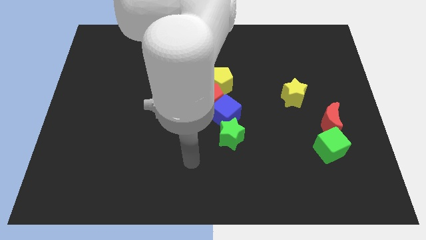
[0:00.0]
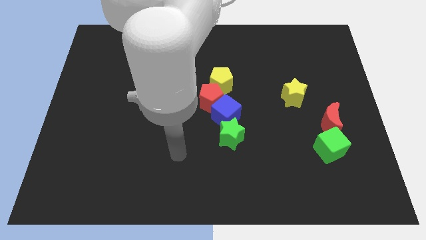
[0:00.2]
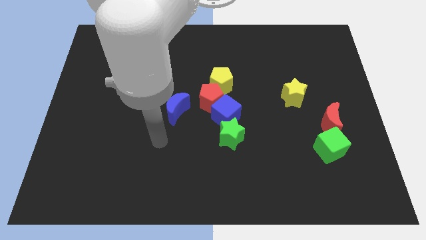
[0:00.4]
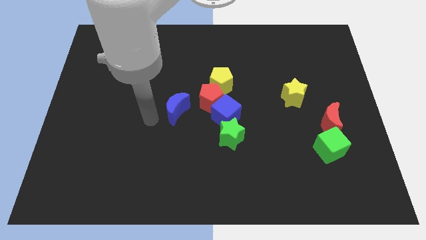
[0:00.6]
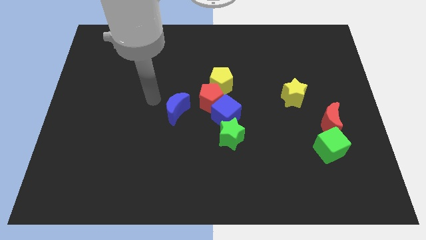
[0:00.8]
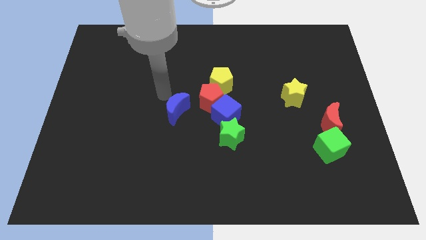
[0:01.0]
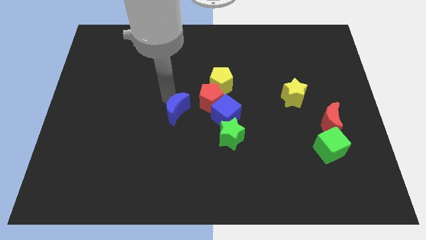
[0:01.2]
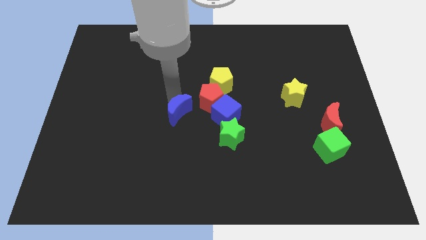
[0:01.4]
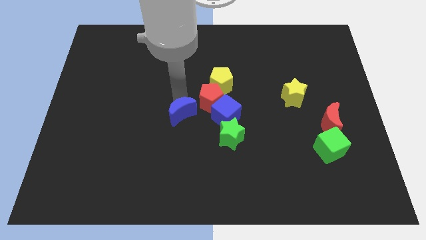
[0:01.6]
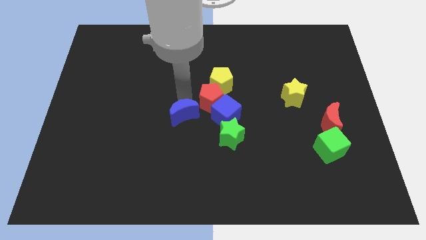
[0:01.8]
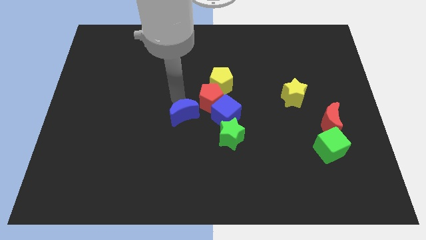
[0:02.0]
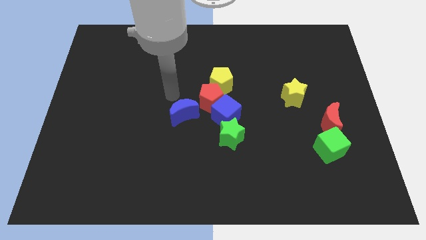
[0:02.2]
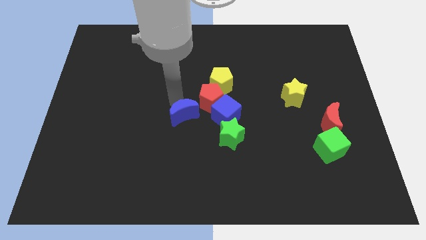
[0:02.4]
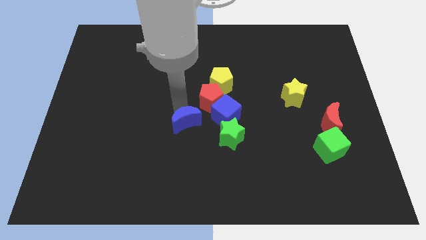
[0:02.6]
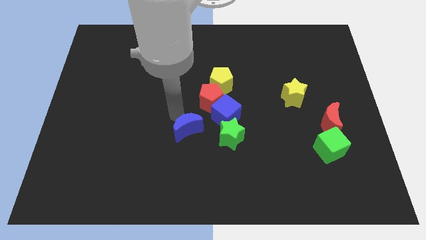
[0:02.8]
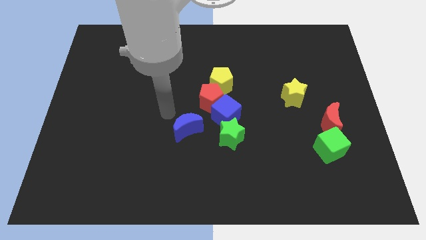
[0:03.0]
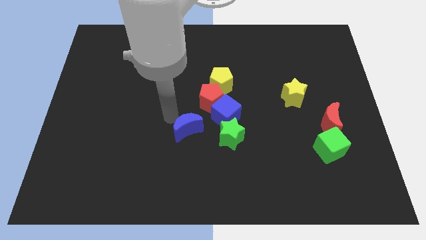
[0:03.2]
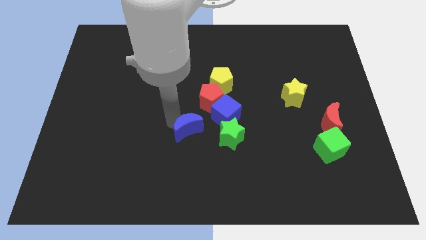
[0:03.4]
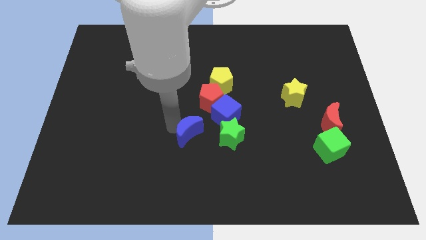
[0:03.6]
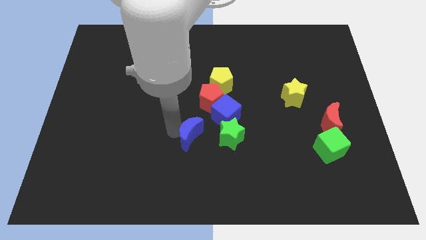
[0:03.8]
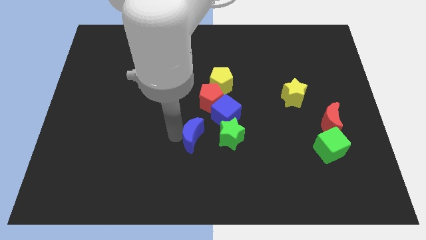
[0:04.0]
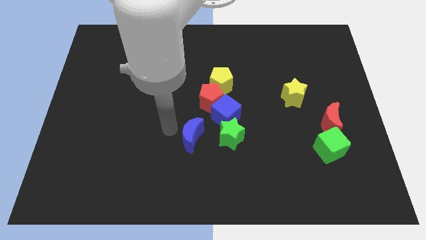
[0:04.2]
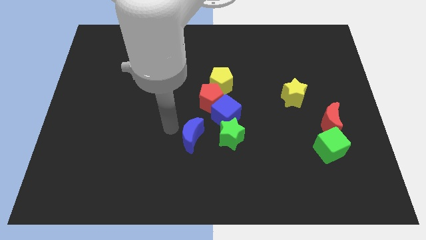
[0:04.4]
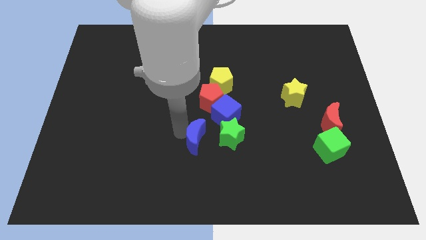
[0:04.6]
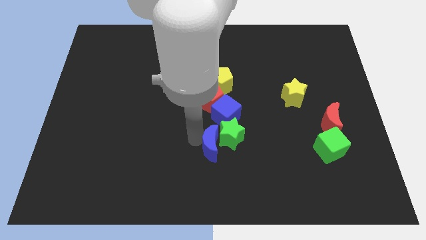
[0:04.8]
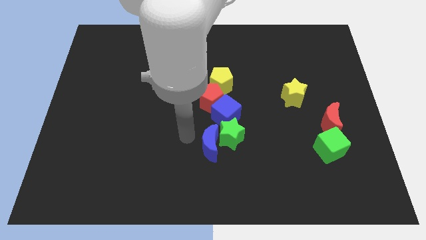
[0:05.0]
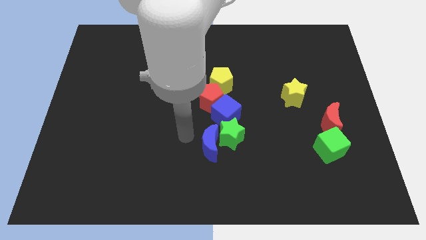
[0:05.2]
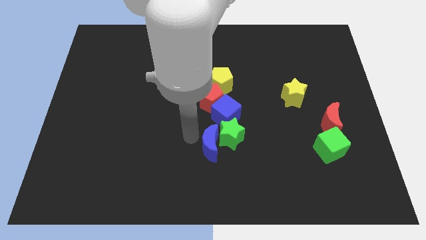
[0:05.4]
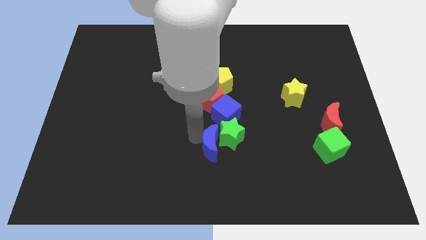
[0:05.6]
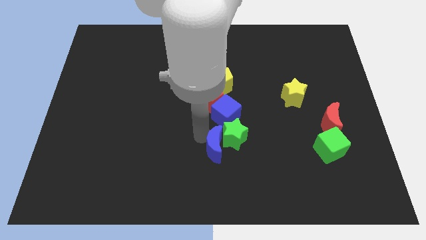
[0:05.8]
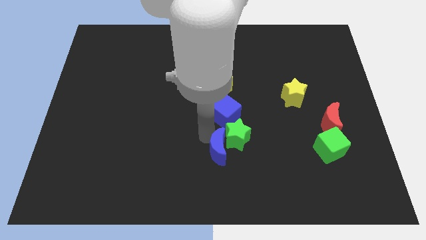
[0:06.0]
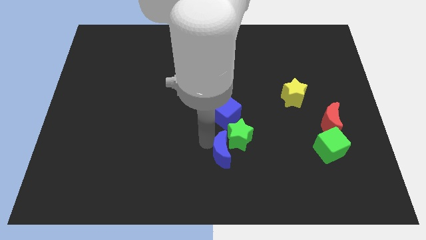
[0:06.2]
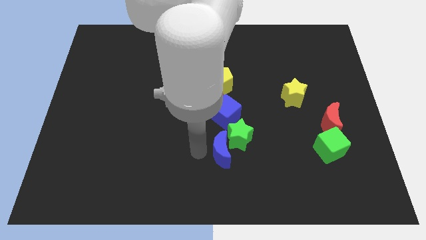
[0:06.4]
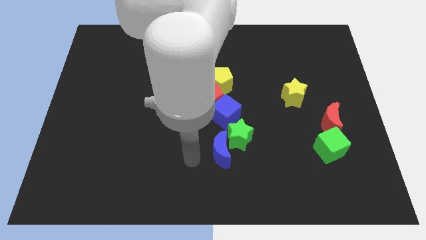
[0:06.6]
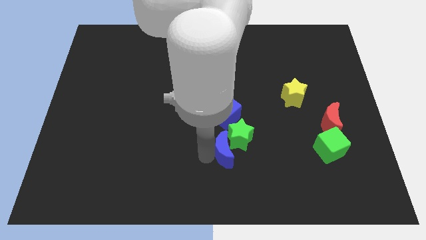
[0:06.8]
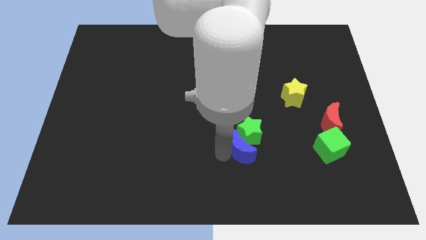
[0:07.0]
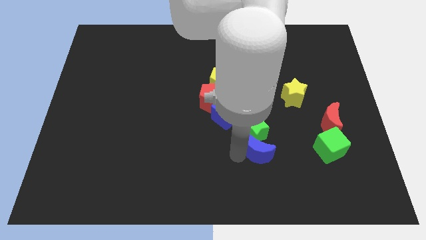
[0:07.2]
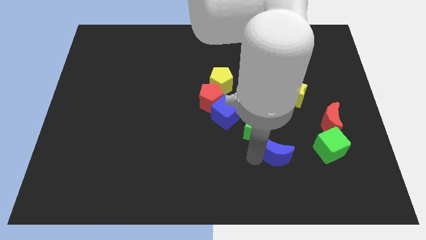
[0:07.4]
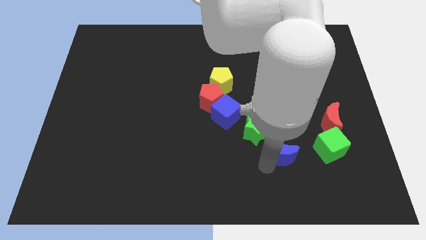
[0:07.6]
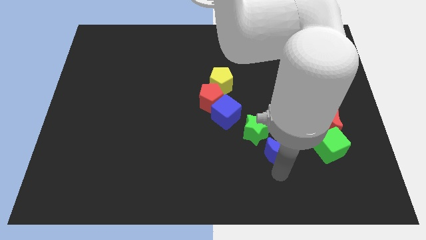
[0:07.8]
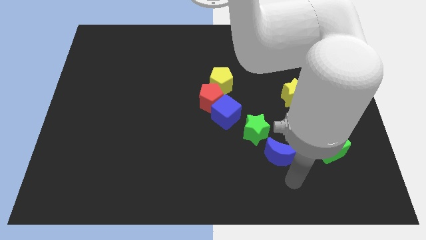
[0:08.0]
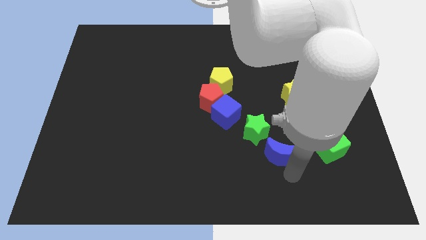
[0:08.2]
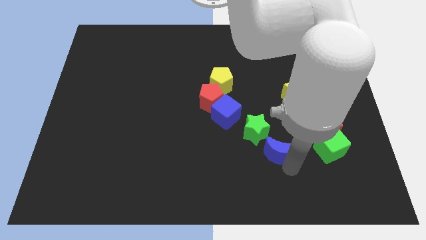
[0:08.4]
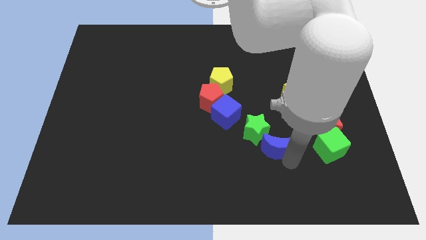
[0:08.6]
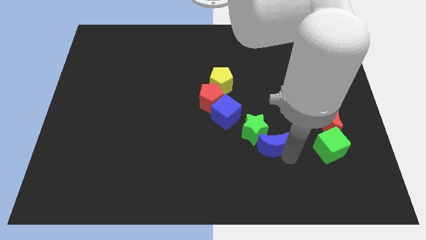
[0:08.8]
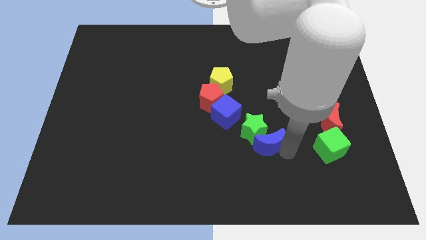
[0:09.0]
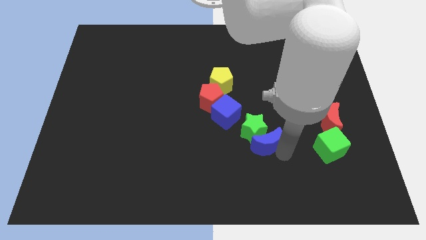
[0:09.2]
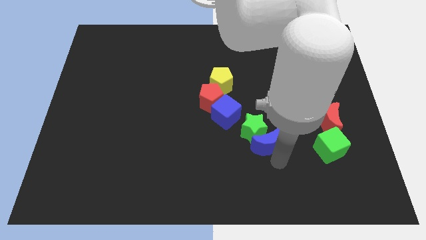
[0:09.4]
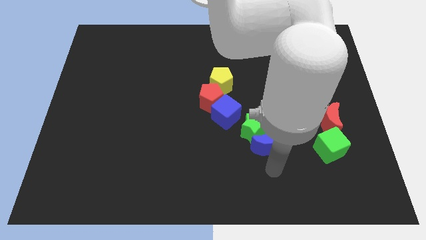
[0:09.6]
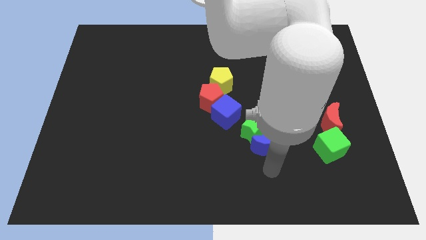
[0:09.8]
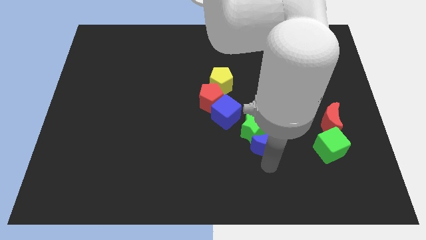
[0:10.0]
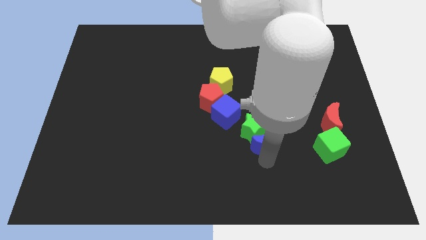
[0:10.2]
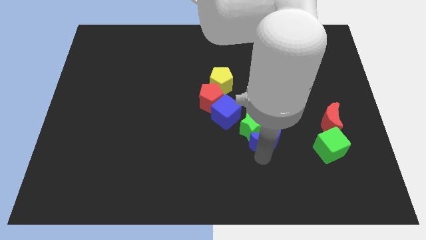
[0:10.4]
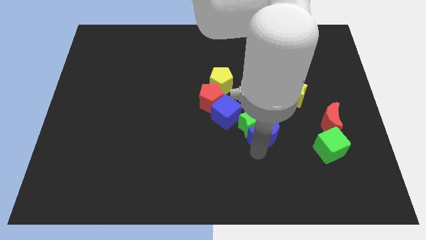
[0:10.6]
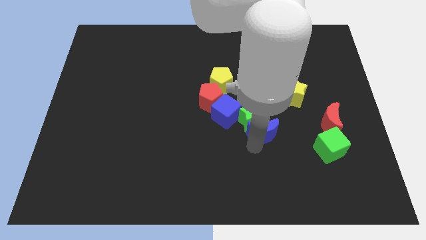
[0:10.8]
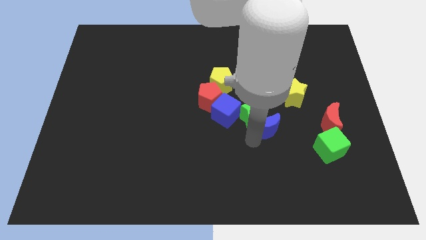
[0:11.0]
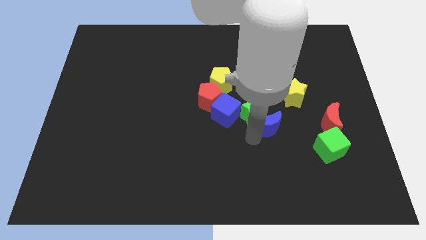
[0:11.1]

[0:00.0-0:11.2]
push the blue moon to the right

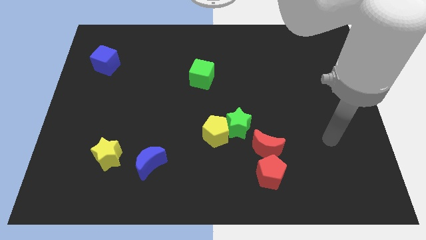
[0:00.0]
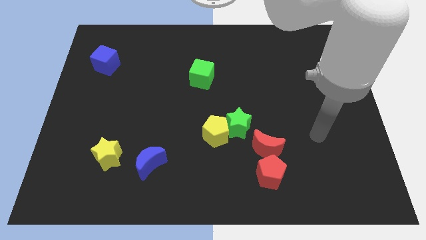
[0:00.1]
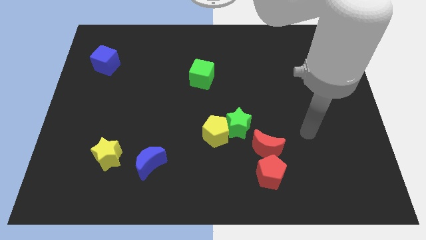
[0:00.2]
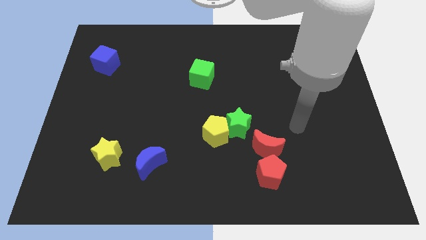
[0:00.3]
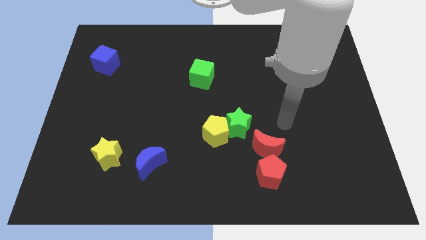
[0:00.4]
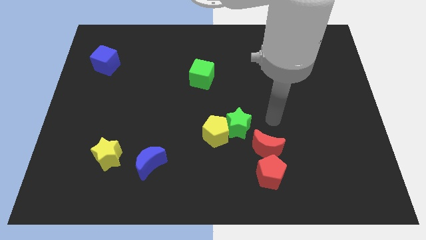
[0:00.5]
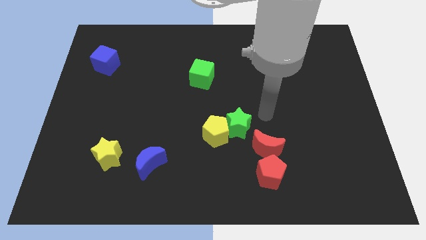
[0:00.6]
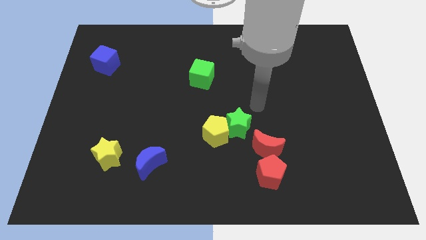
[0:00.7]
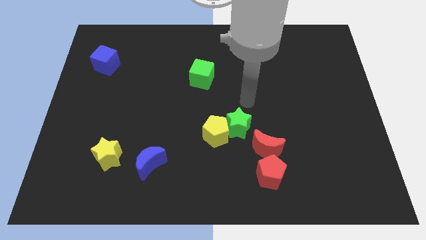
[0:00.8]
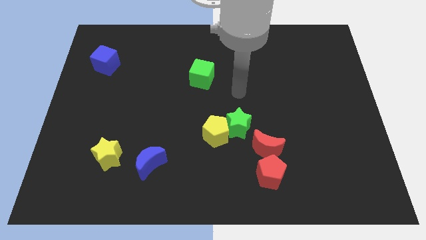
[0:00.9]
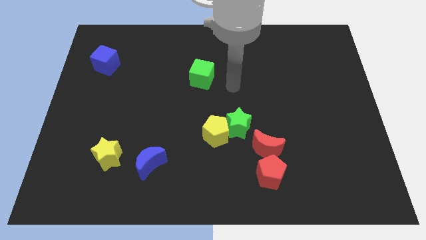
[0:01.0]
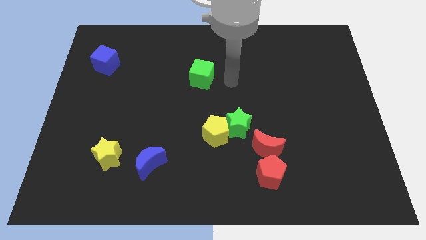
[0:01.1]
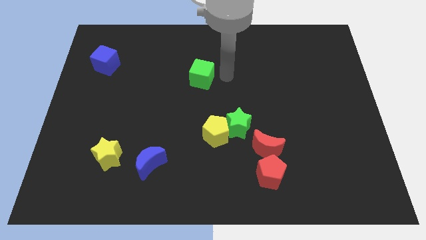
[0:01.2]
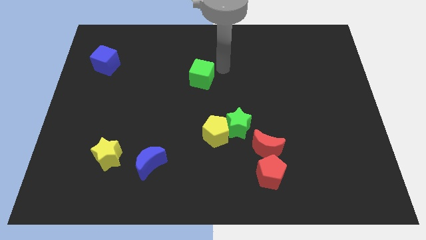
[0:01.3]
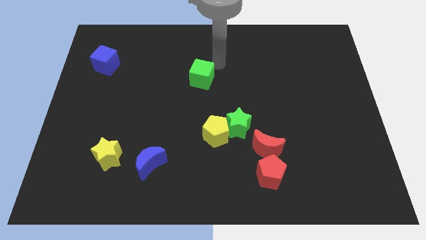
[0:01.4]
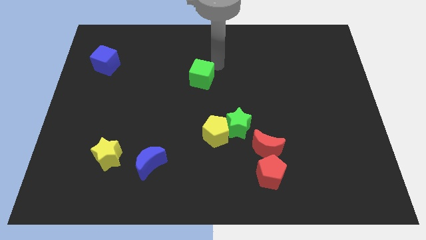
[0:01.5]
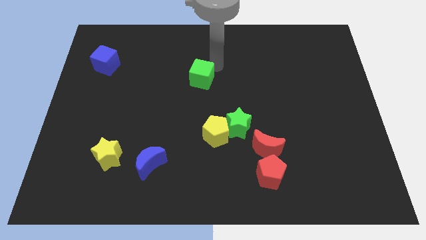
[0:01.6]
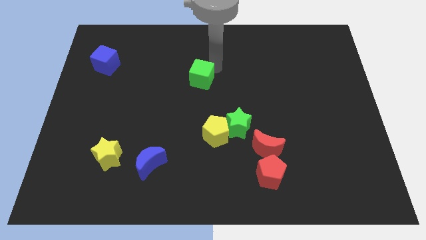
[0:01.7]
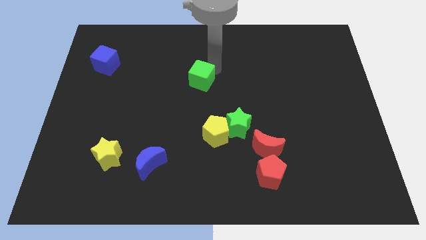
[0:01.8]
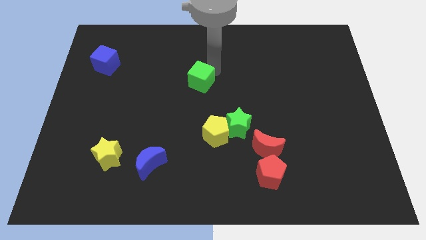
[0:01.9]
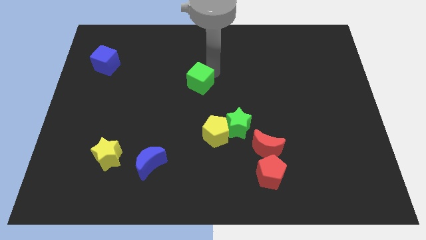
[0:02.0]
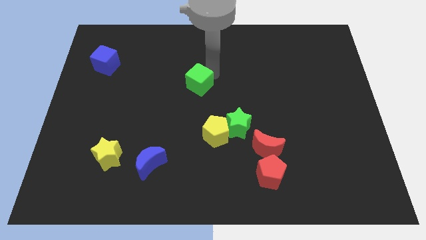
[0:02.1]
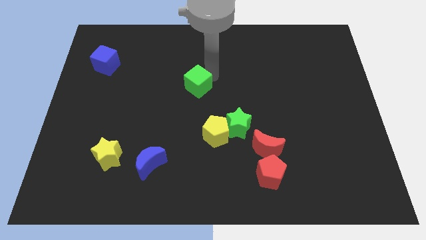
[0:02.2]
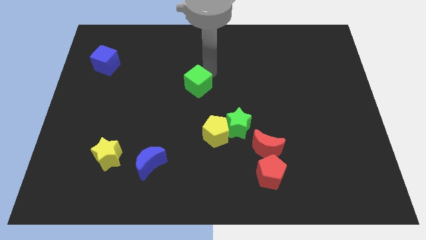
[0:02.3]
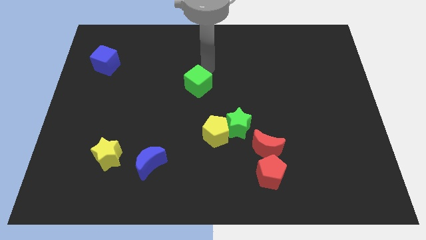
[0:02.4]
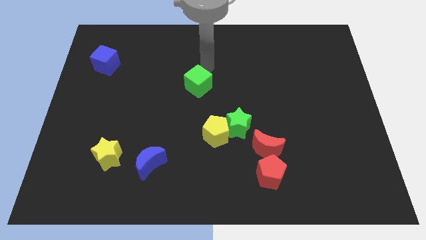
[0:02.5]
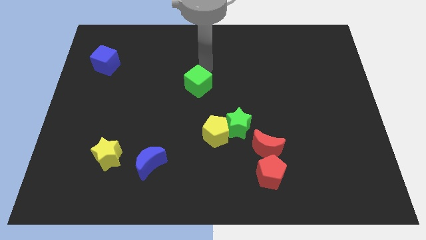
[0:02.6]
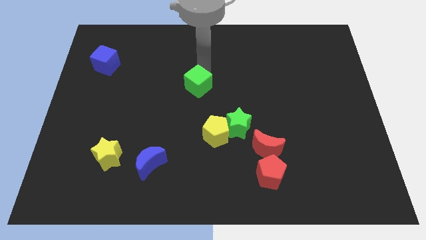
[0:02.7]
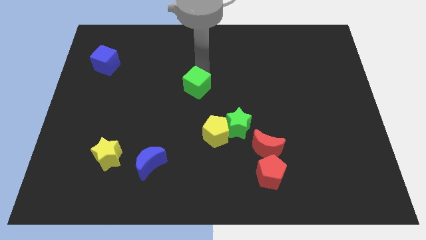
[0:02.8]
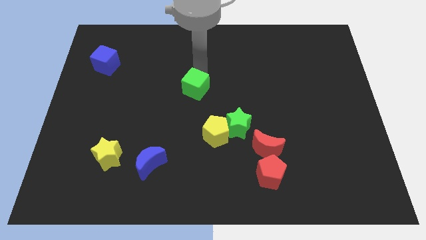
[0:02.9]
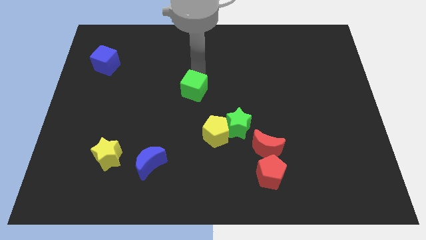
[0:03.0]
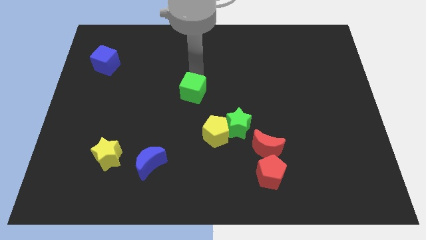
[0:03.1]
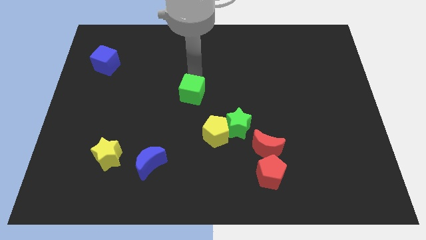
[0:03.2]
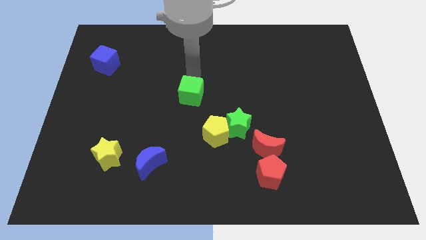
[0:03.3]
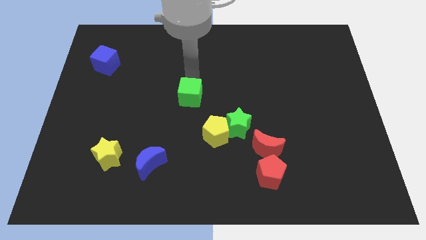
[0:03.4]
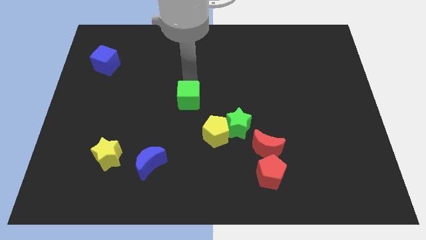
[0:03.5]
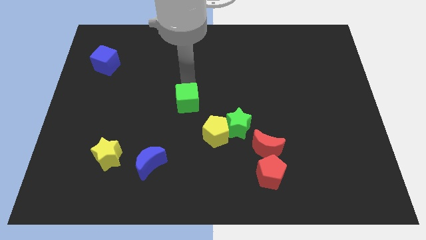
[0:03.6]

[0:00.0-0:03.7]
push the green cube downwards a little bit
